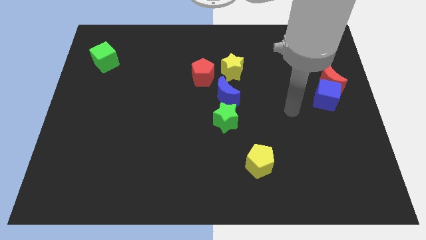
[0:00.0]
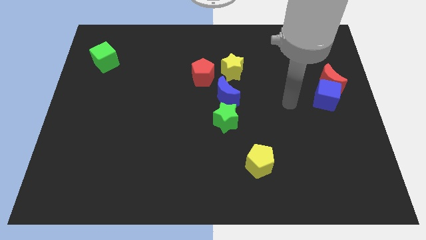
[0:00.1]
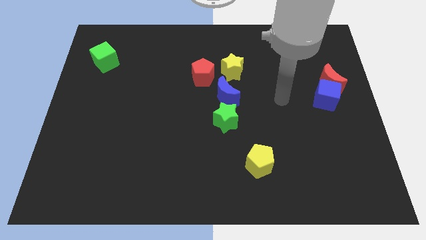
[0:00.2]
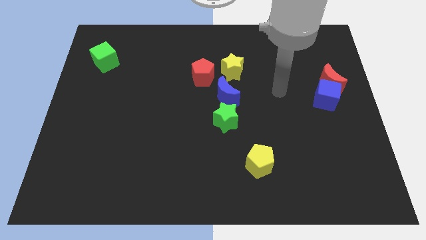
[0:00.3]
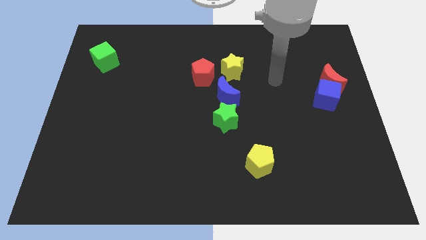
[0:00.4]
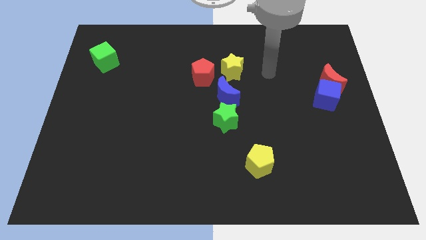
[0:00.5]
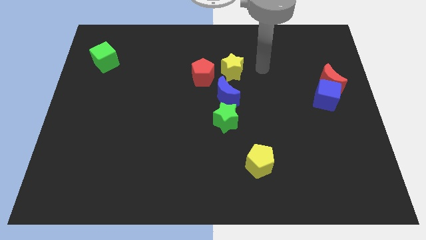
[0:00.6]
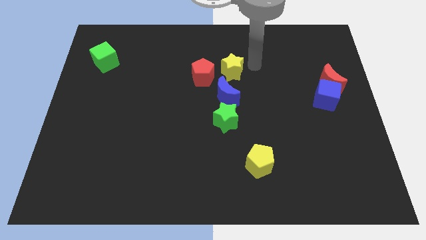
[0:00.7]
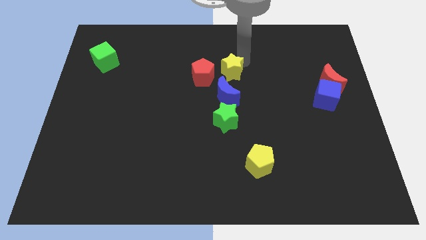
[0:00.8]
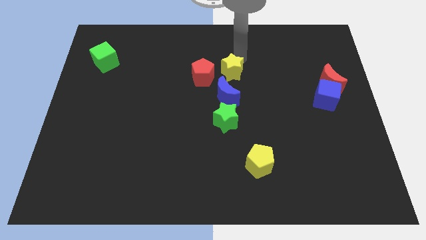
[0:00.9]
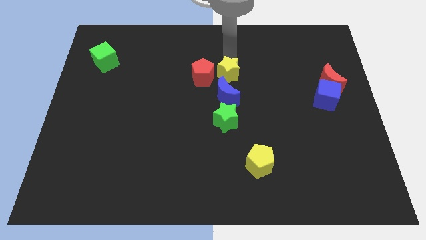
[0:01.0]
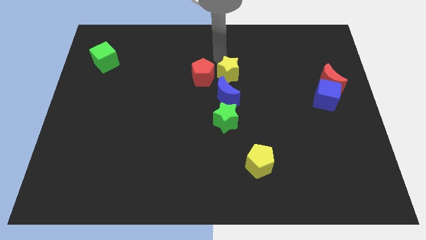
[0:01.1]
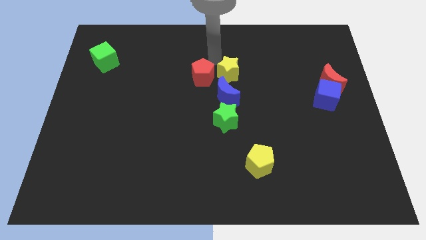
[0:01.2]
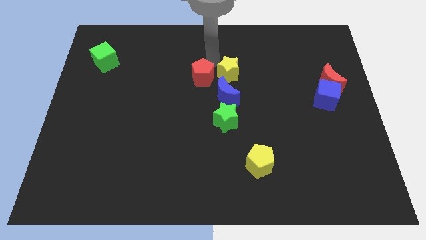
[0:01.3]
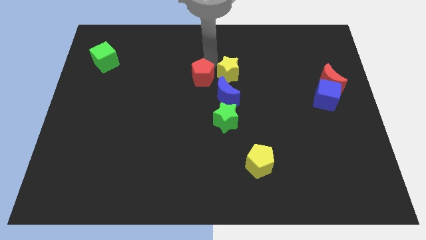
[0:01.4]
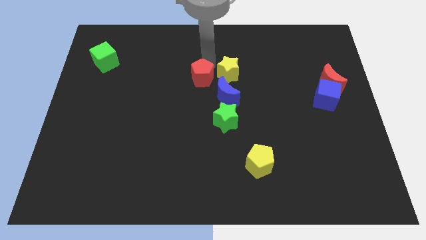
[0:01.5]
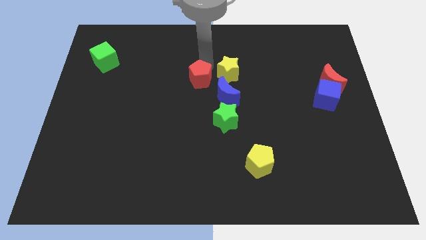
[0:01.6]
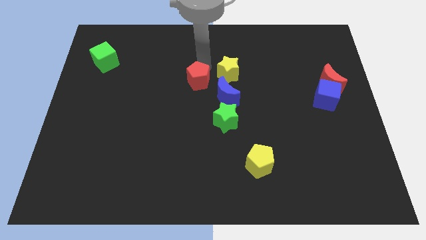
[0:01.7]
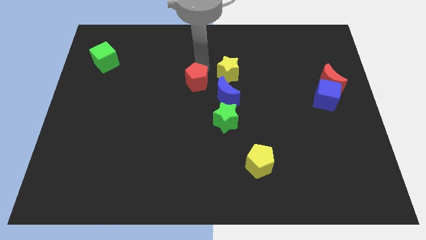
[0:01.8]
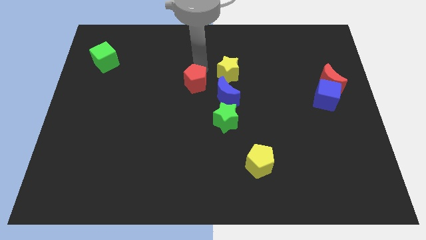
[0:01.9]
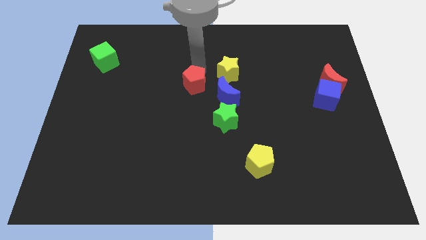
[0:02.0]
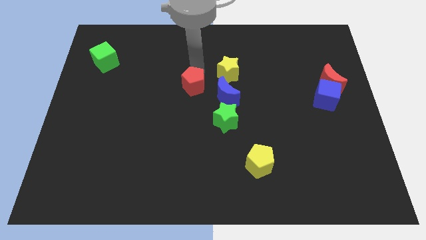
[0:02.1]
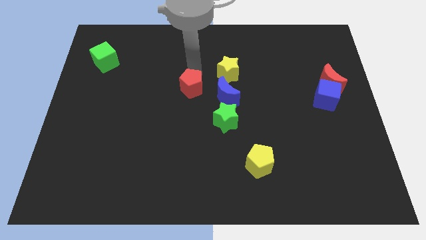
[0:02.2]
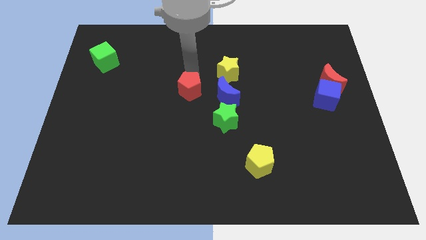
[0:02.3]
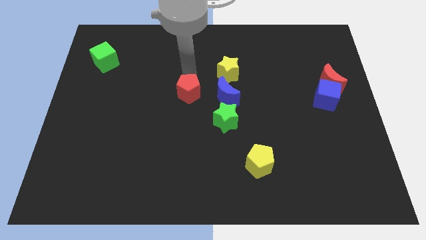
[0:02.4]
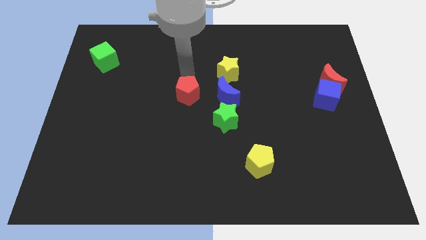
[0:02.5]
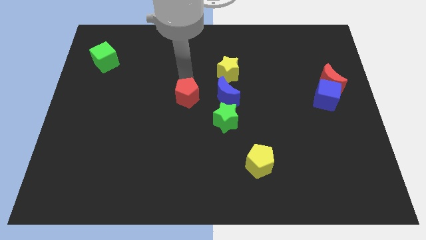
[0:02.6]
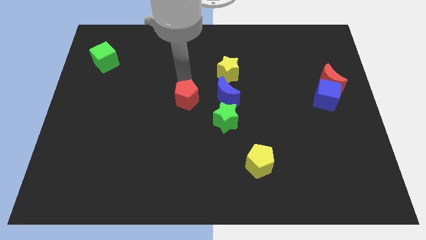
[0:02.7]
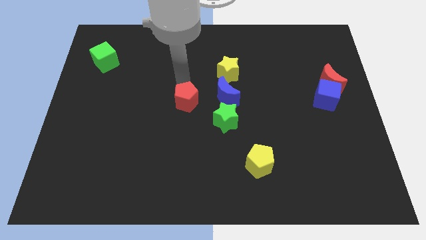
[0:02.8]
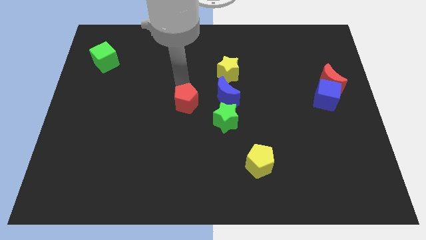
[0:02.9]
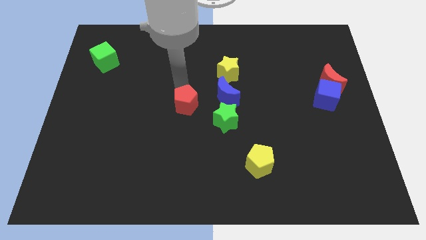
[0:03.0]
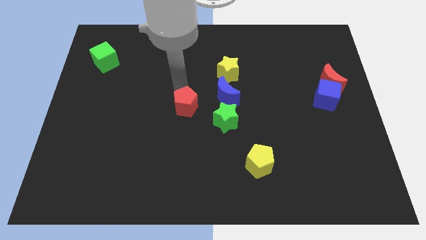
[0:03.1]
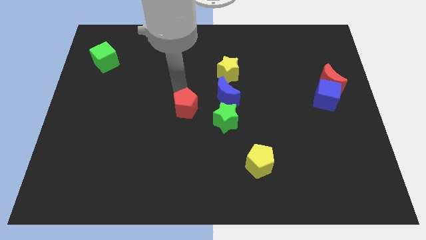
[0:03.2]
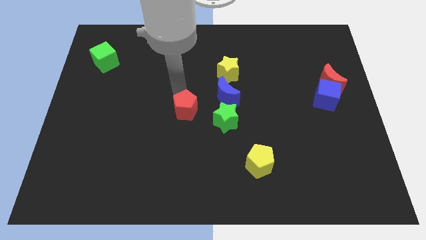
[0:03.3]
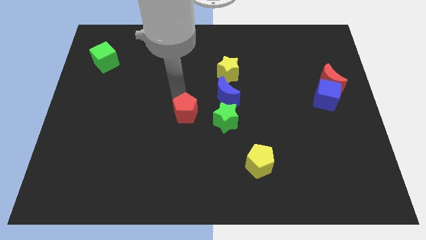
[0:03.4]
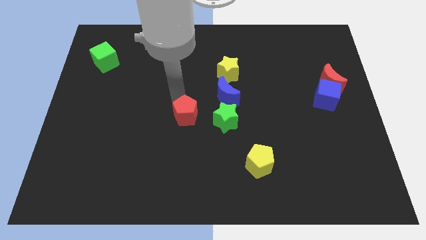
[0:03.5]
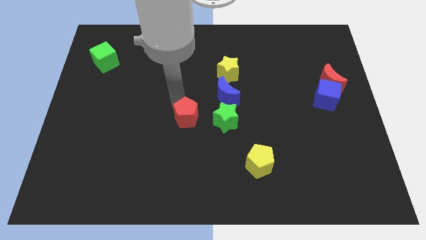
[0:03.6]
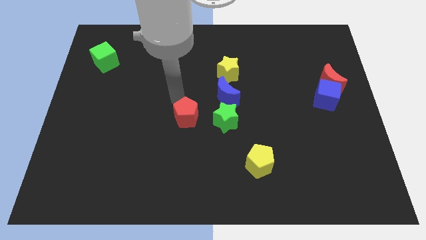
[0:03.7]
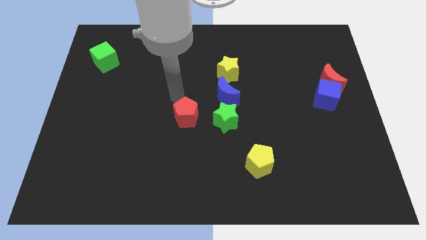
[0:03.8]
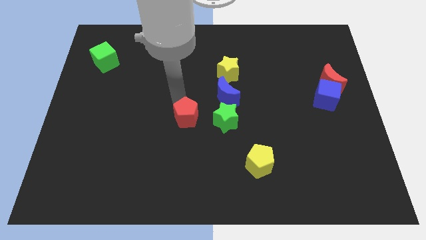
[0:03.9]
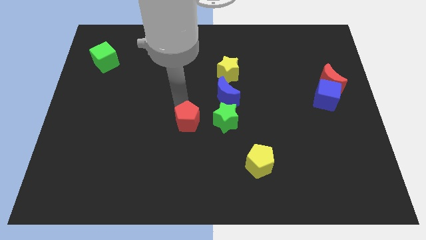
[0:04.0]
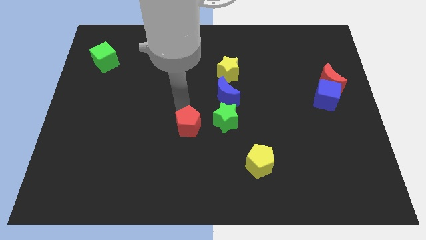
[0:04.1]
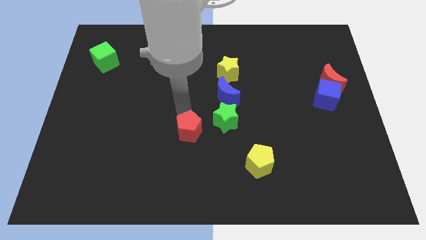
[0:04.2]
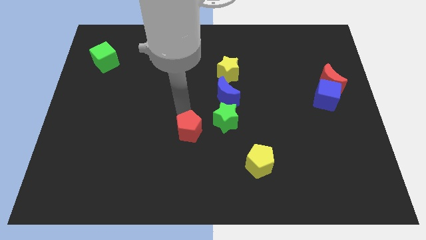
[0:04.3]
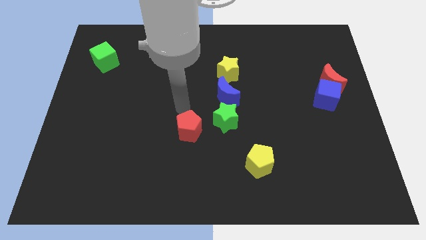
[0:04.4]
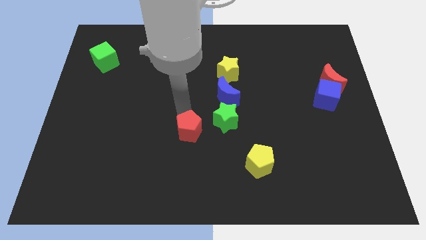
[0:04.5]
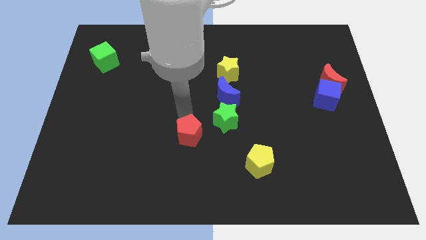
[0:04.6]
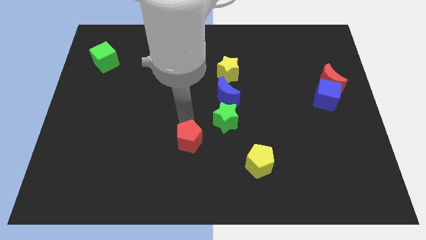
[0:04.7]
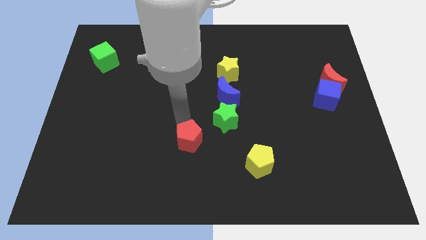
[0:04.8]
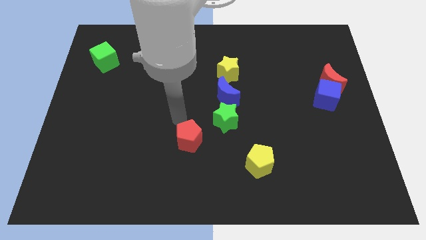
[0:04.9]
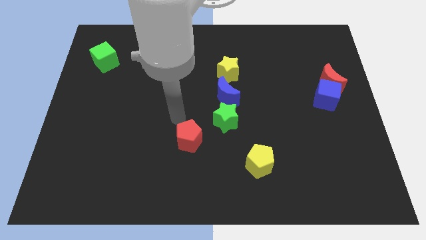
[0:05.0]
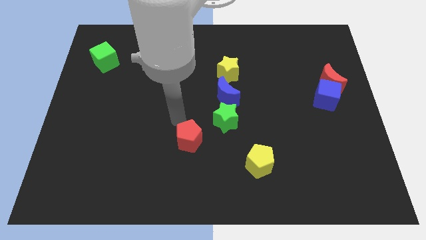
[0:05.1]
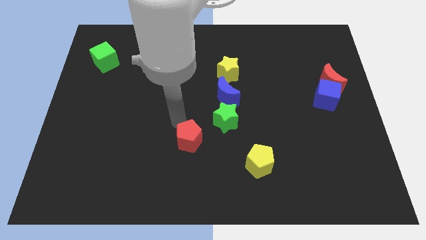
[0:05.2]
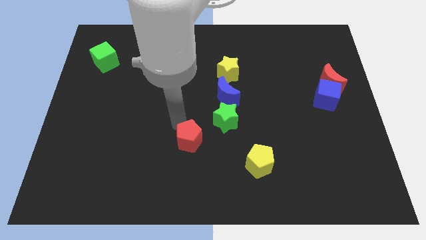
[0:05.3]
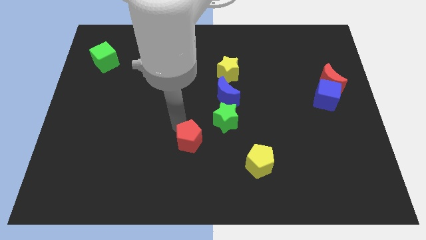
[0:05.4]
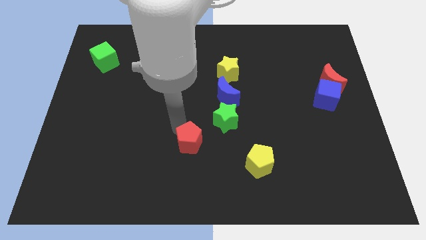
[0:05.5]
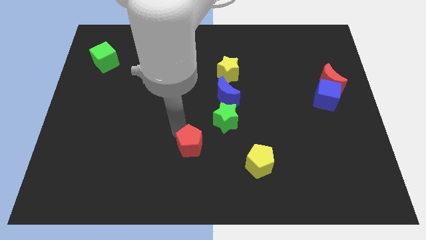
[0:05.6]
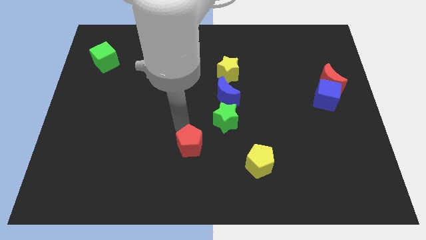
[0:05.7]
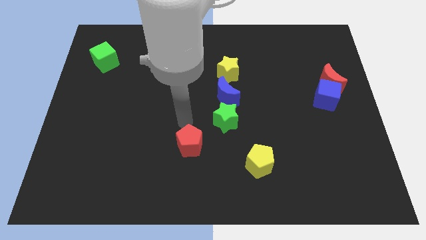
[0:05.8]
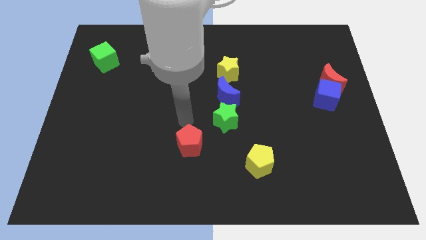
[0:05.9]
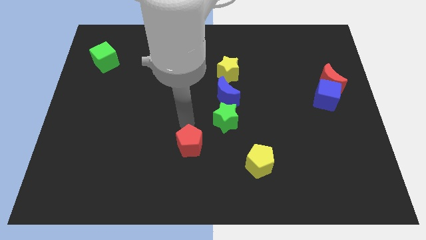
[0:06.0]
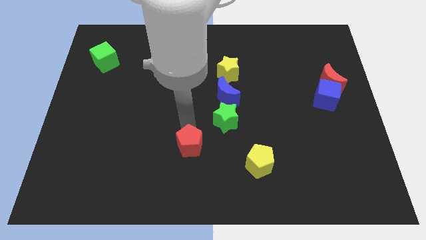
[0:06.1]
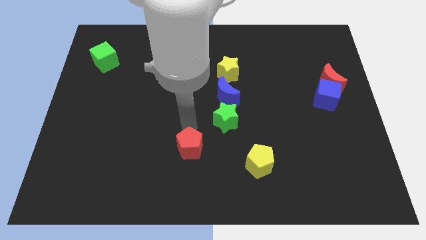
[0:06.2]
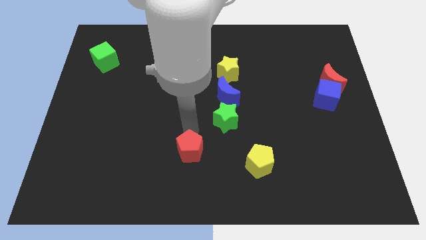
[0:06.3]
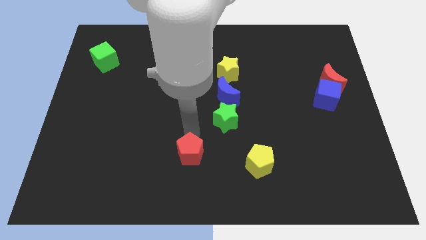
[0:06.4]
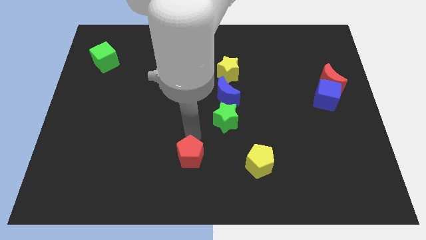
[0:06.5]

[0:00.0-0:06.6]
push the red pentagon to the bottom side
